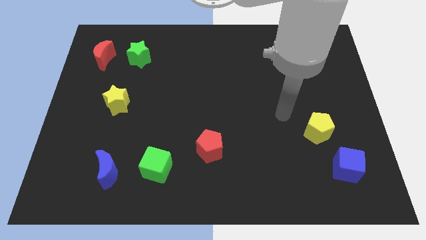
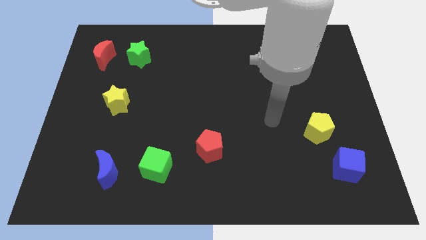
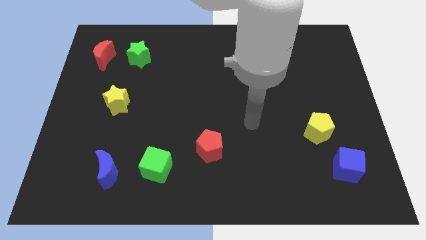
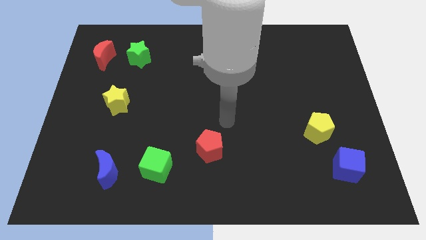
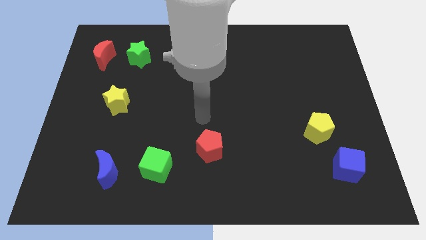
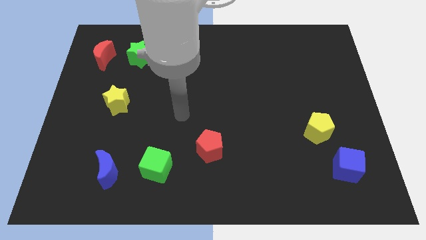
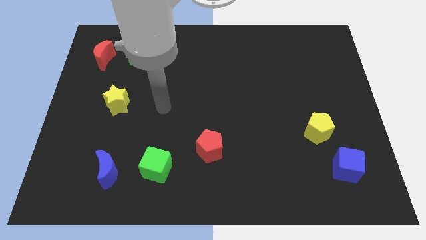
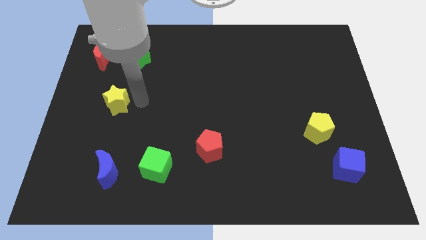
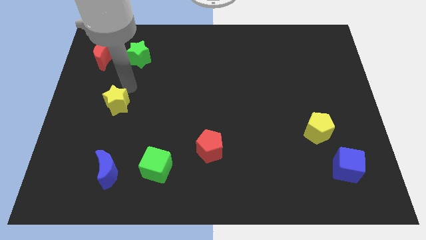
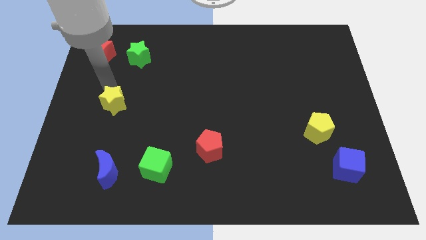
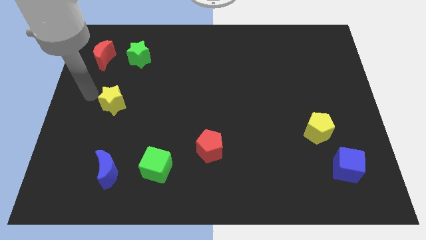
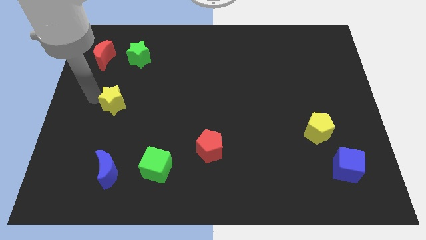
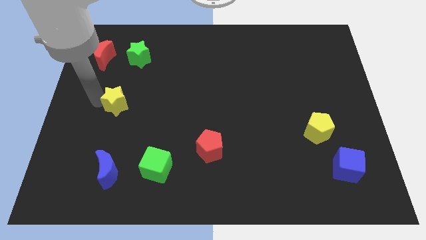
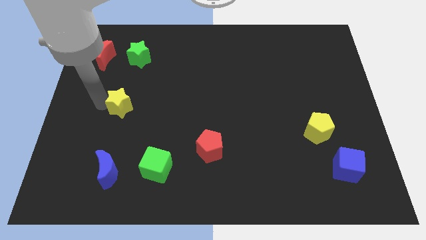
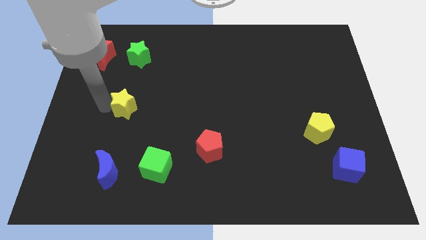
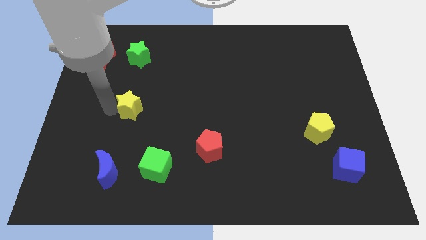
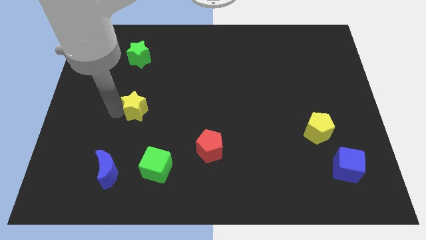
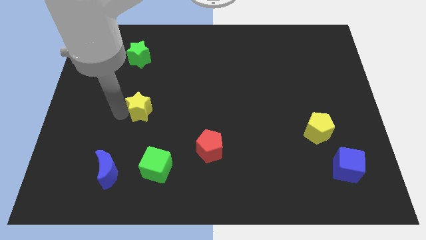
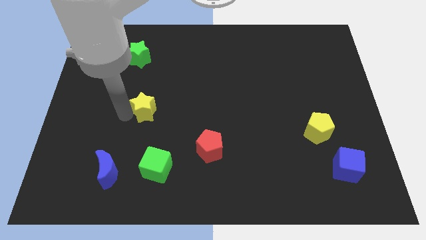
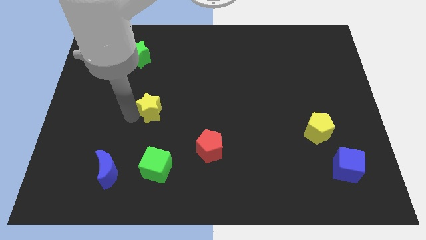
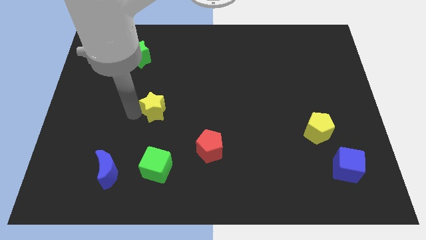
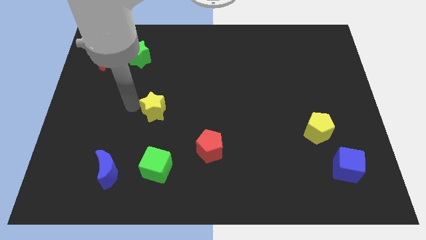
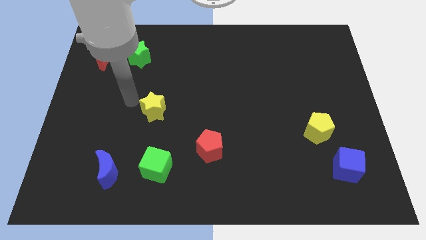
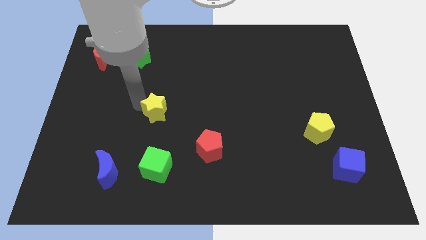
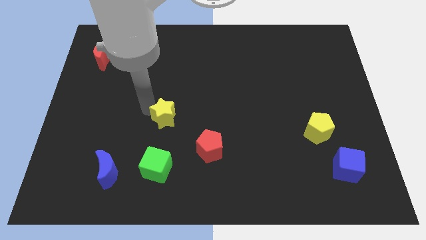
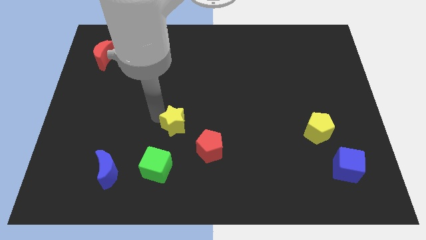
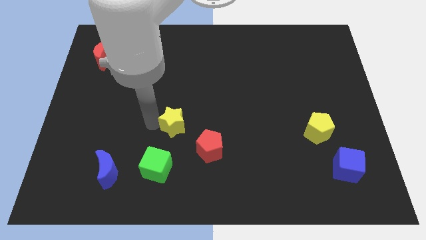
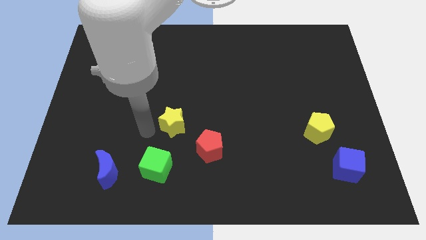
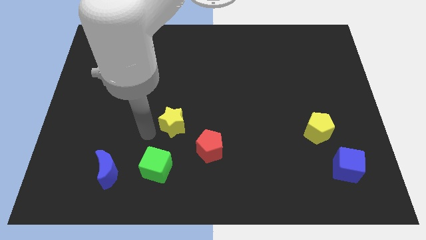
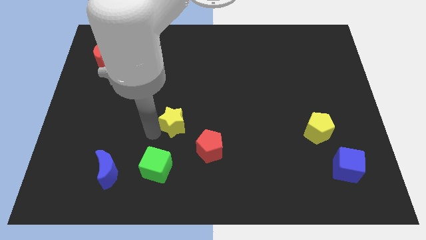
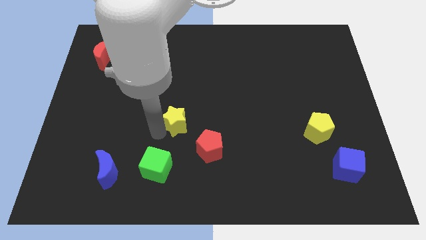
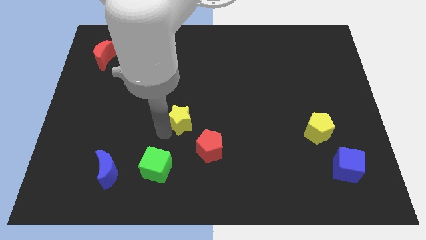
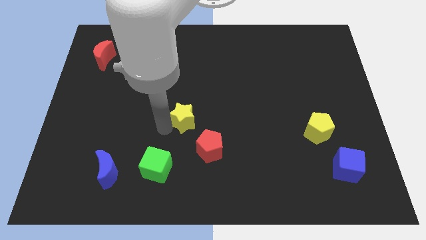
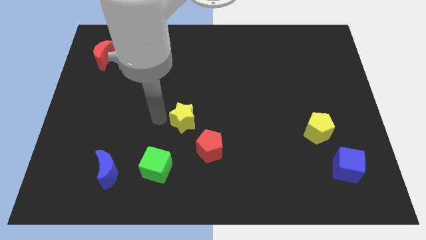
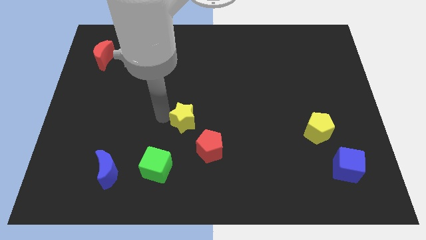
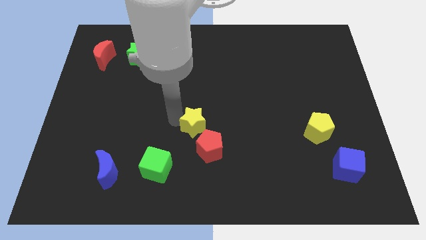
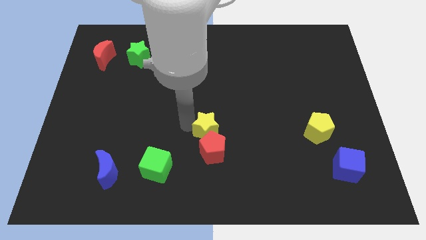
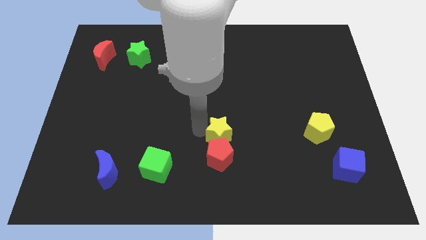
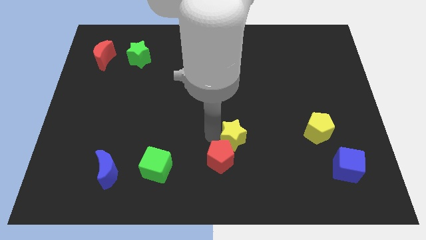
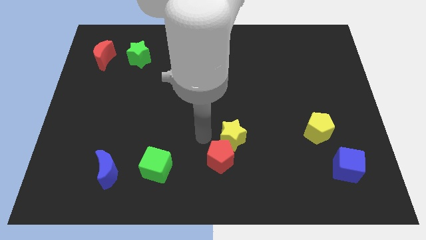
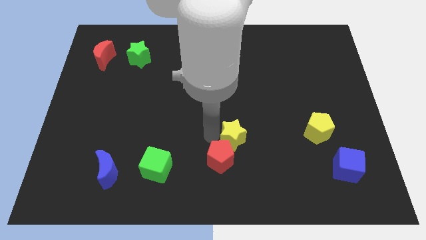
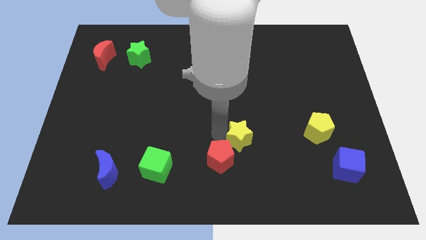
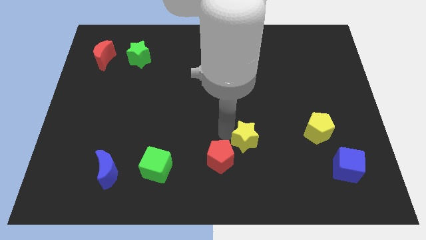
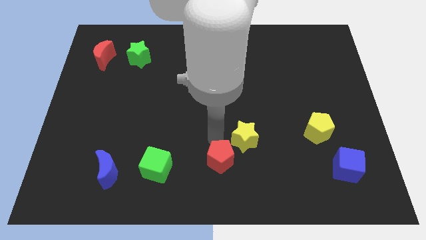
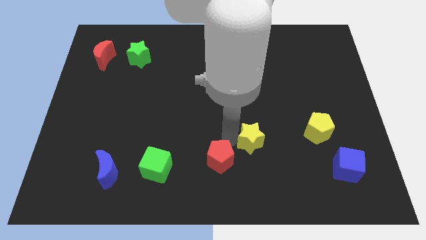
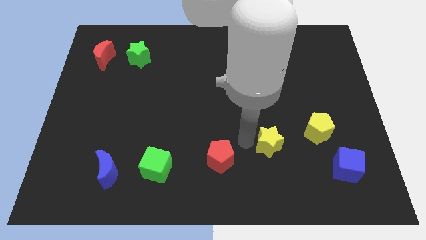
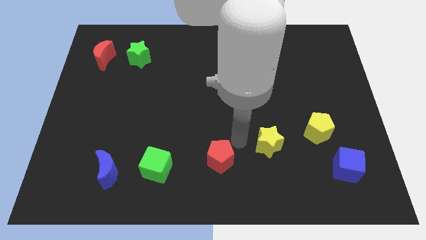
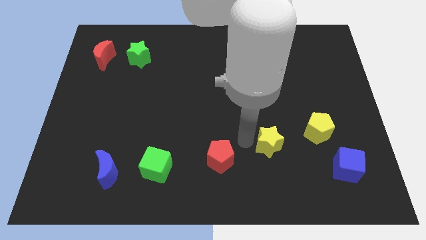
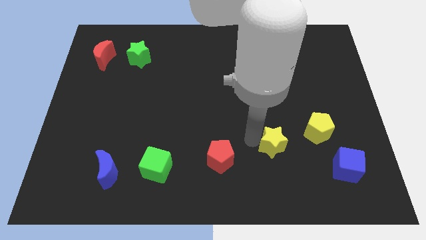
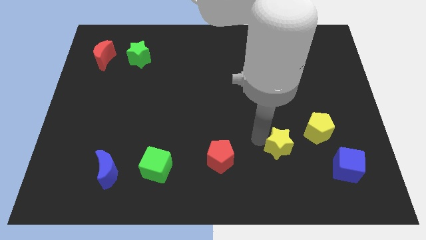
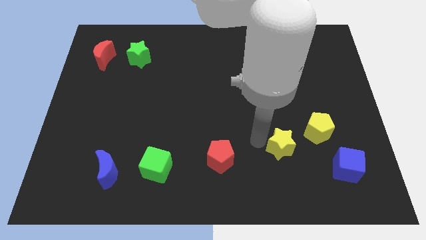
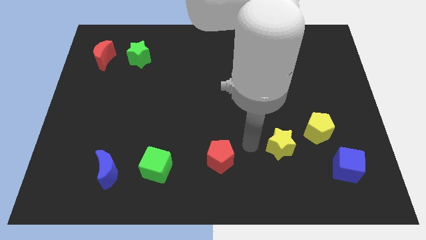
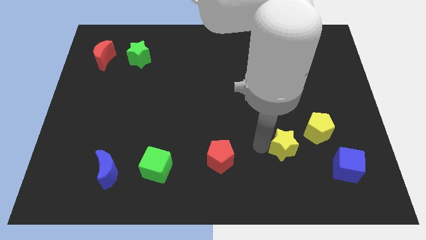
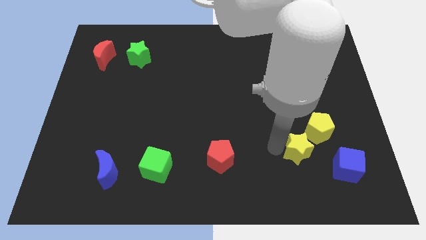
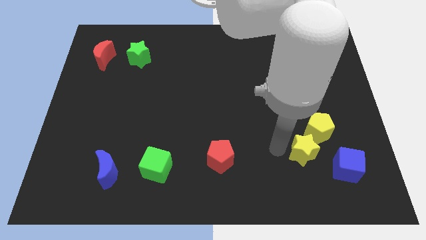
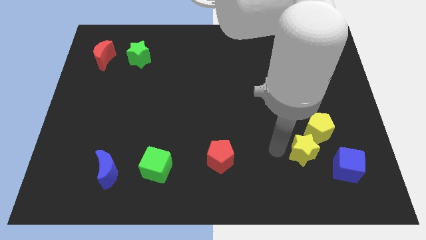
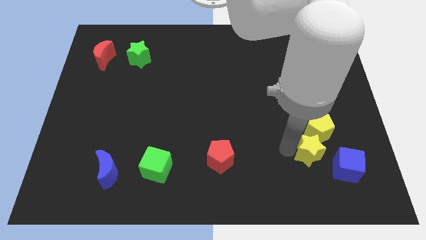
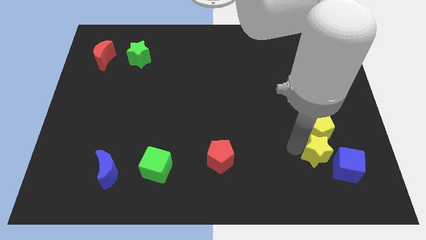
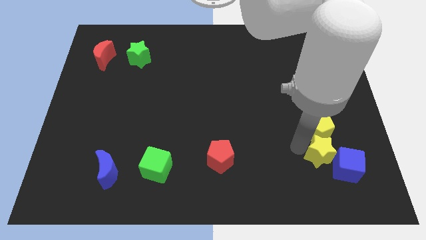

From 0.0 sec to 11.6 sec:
move the yellow star to the blue cube

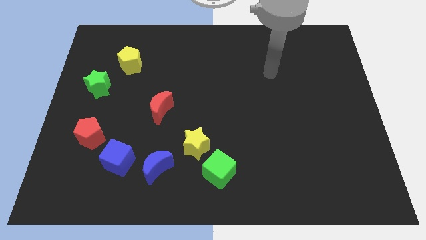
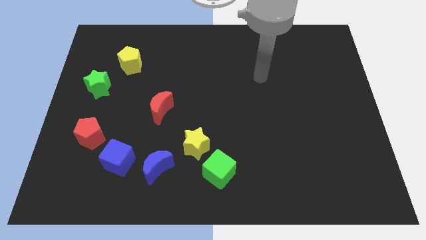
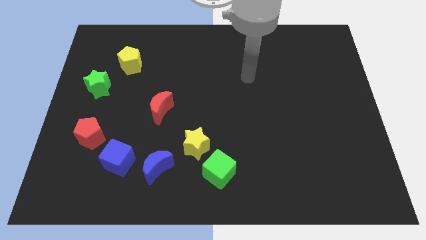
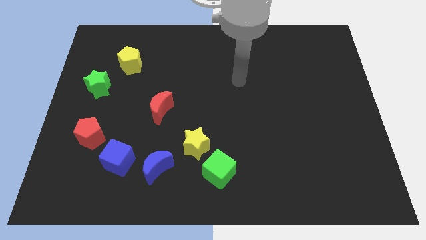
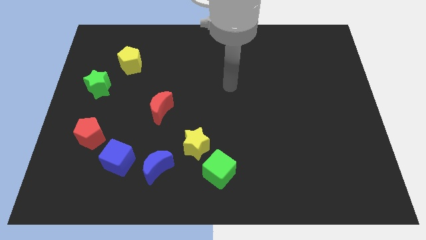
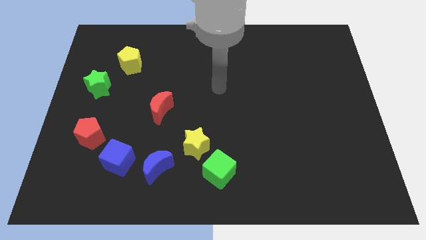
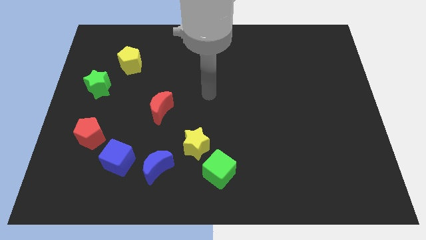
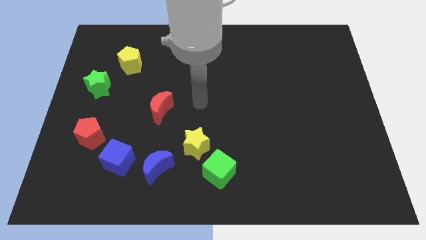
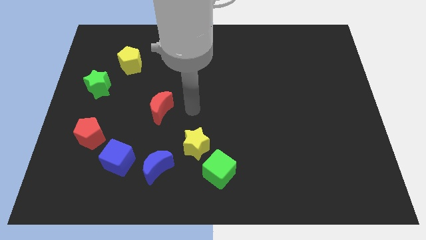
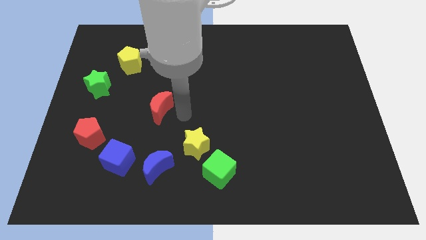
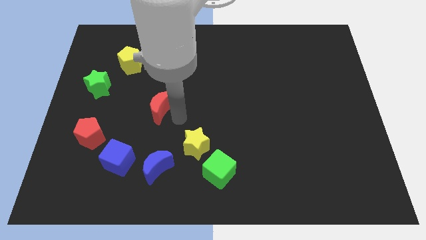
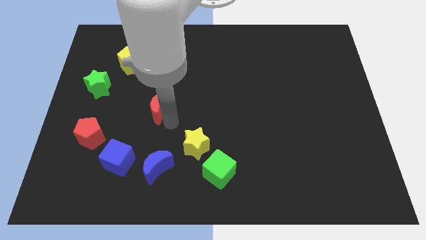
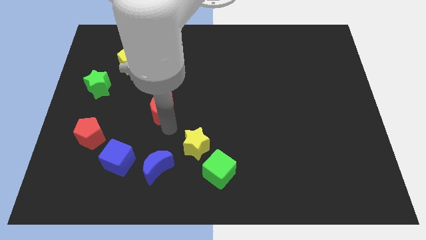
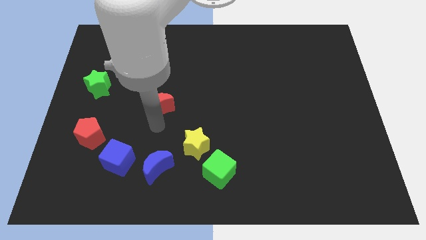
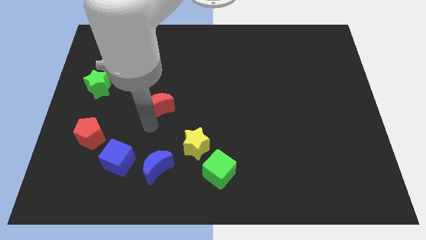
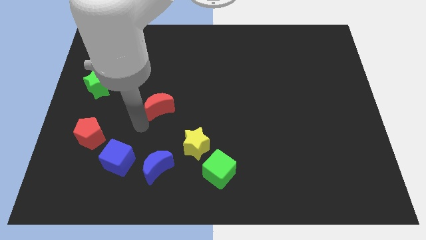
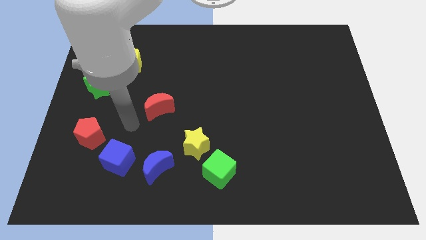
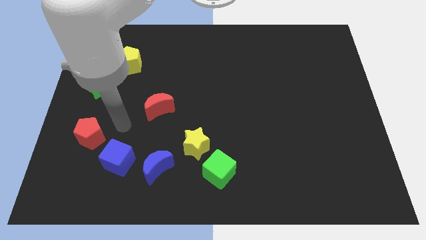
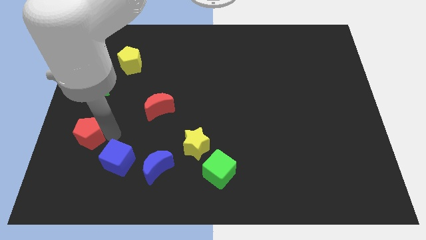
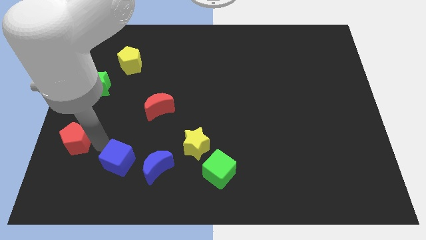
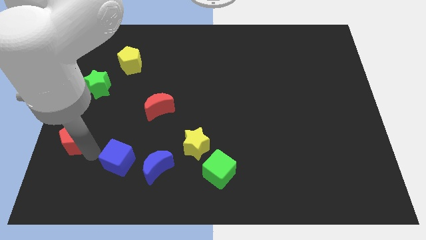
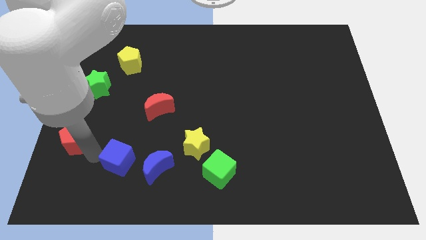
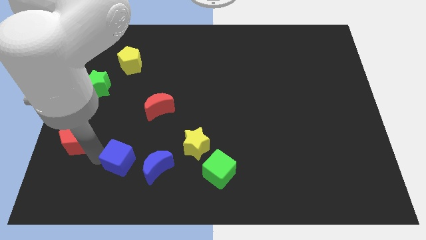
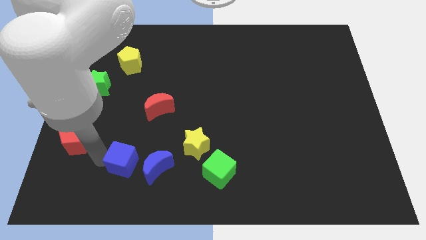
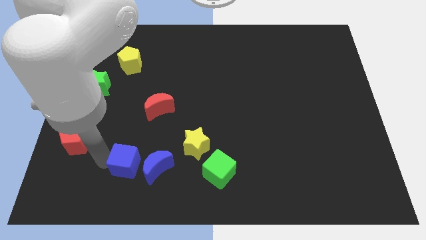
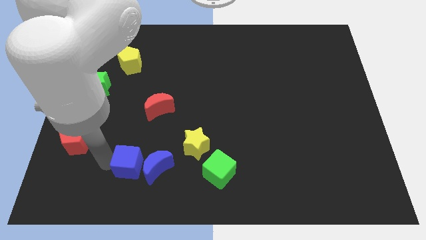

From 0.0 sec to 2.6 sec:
move the blue cube towards the blue moon
